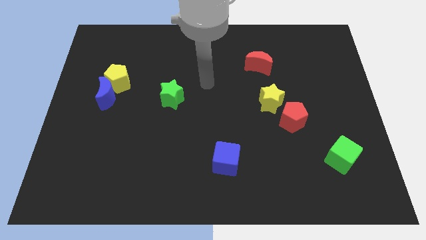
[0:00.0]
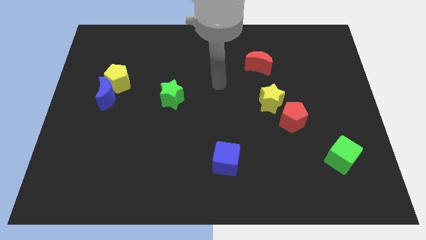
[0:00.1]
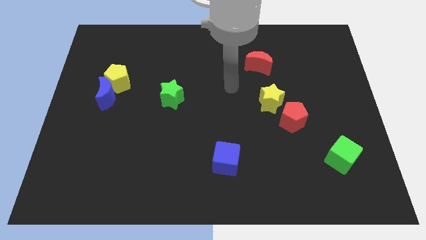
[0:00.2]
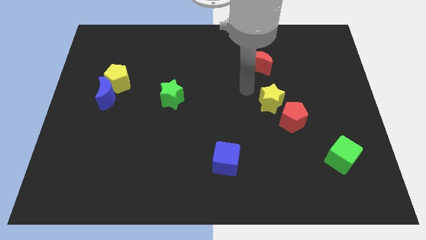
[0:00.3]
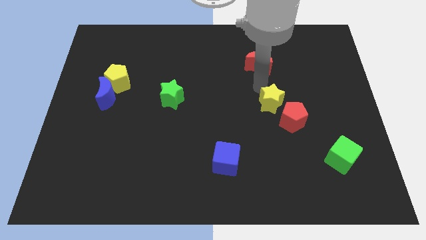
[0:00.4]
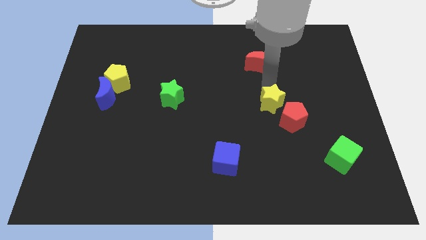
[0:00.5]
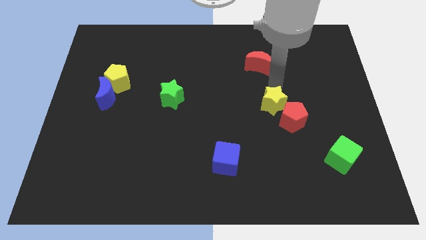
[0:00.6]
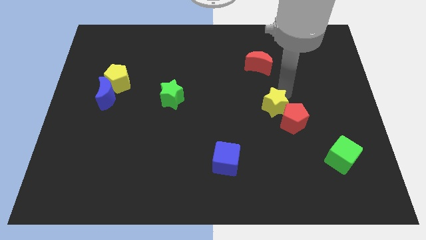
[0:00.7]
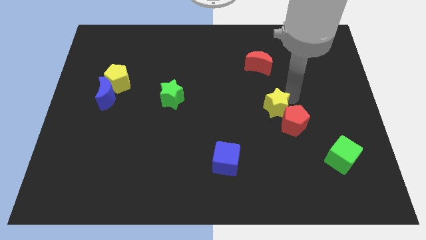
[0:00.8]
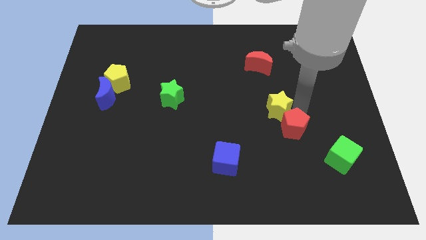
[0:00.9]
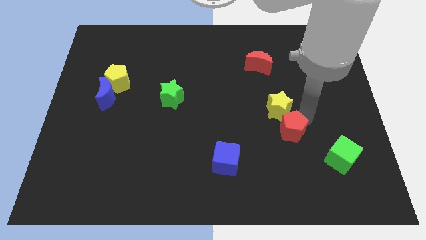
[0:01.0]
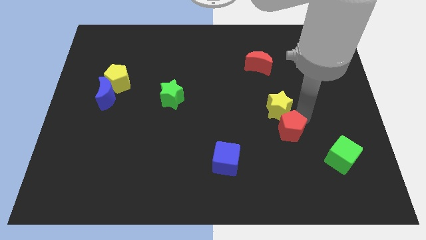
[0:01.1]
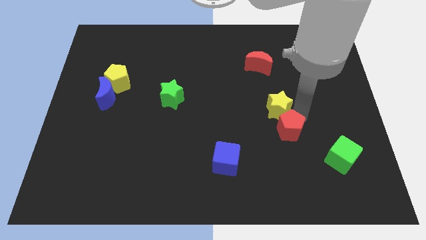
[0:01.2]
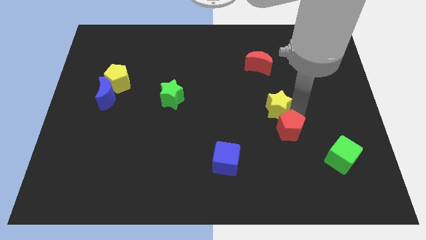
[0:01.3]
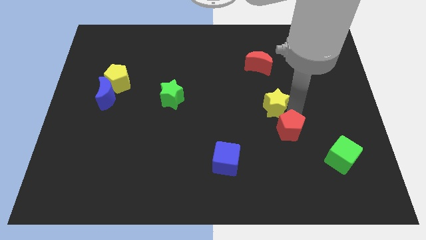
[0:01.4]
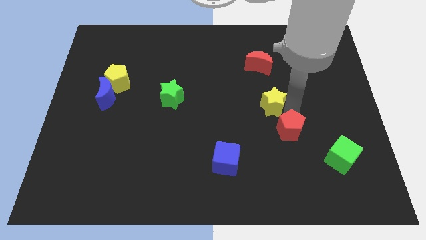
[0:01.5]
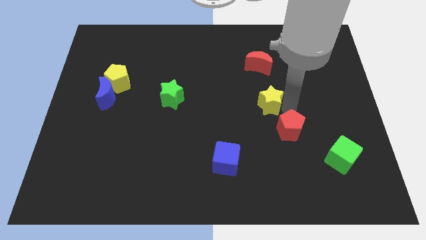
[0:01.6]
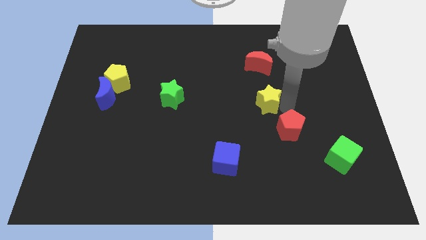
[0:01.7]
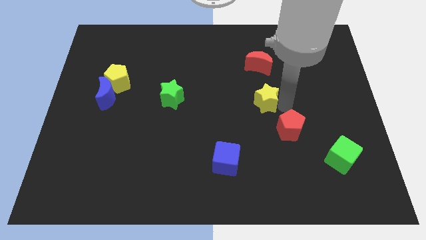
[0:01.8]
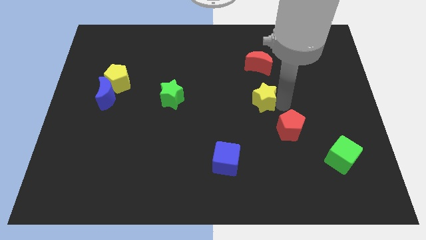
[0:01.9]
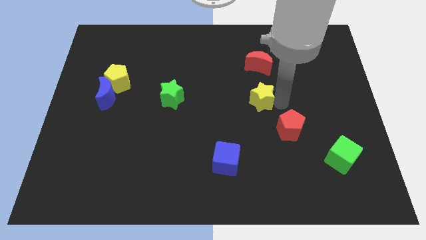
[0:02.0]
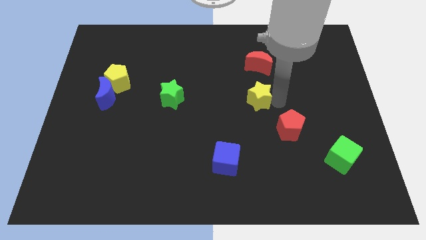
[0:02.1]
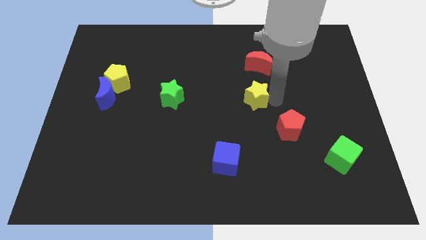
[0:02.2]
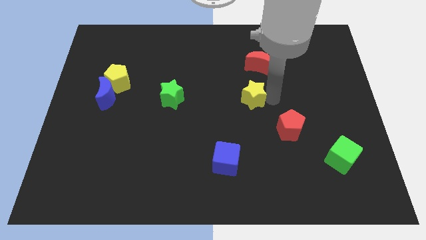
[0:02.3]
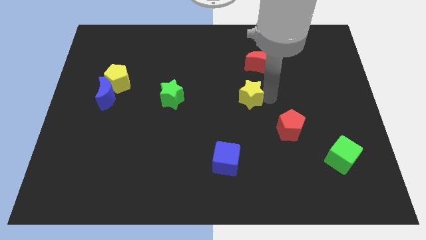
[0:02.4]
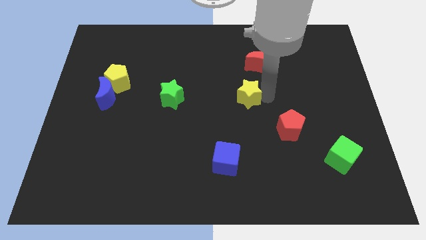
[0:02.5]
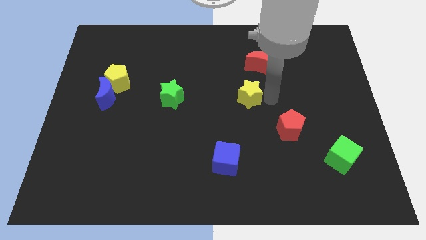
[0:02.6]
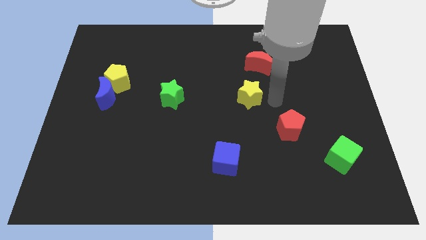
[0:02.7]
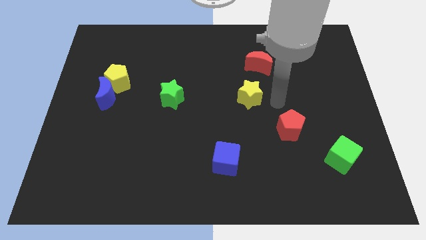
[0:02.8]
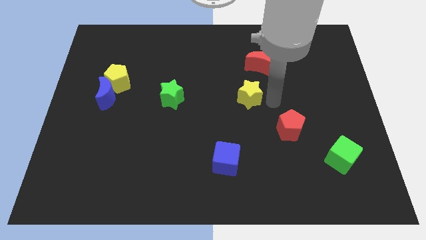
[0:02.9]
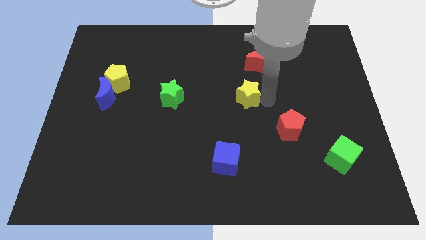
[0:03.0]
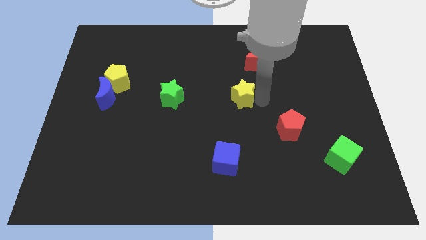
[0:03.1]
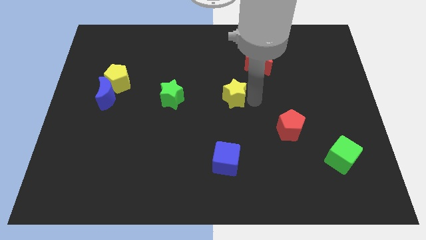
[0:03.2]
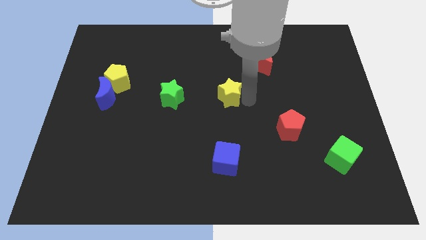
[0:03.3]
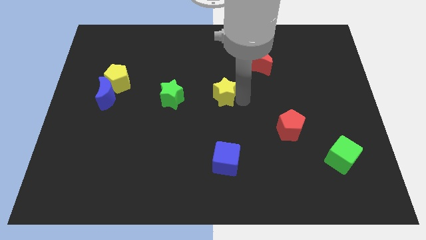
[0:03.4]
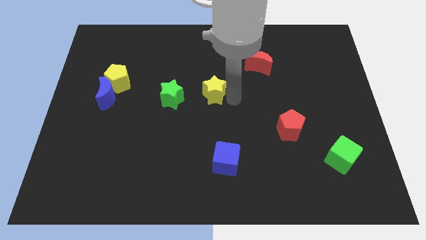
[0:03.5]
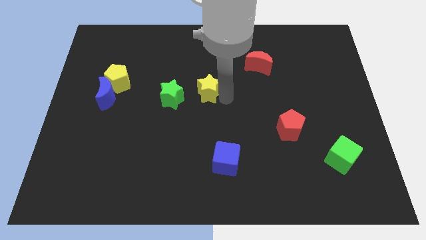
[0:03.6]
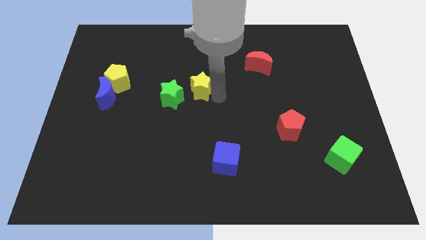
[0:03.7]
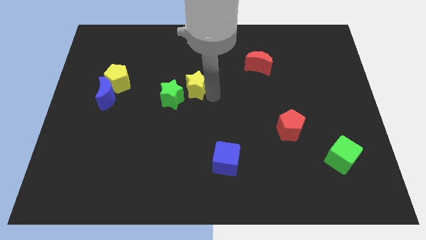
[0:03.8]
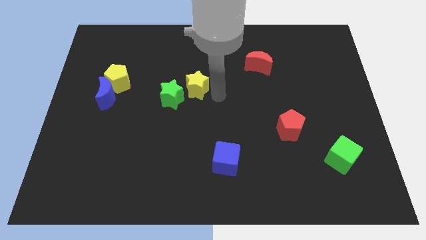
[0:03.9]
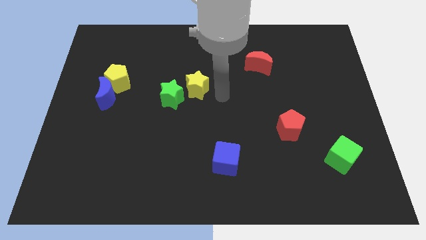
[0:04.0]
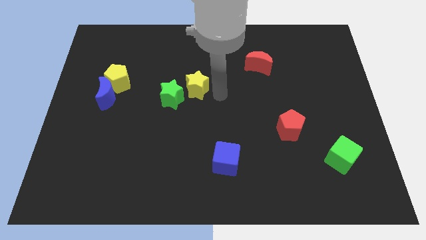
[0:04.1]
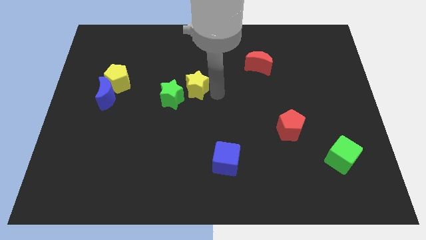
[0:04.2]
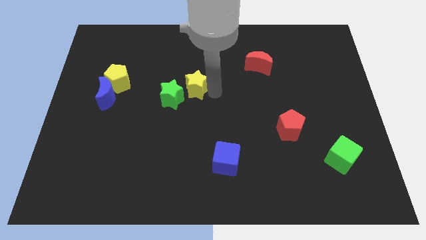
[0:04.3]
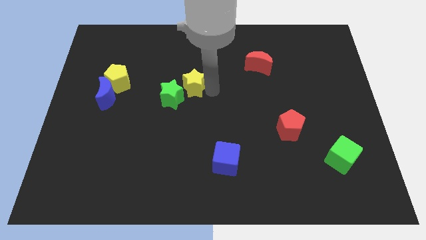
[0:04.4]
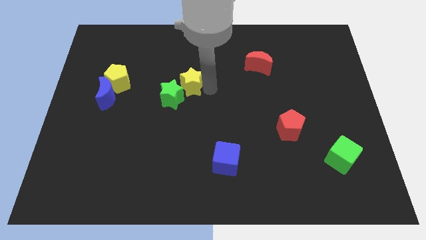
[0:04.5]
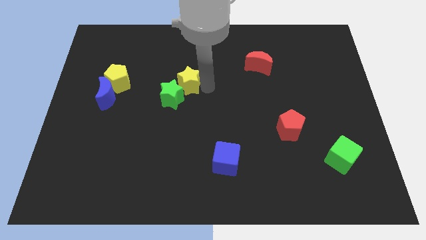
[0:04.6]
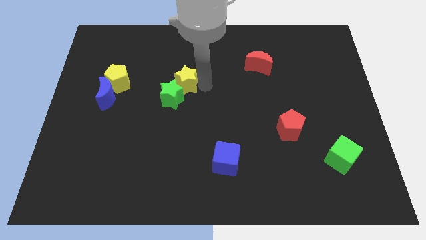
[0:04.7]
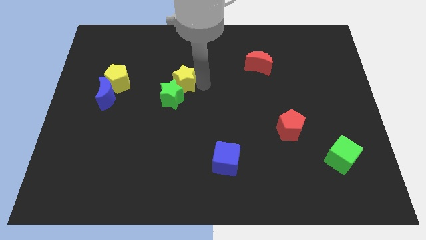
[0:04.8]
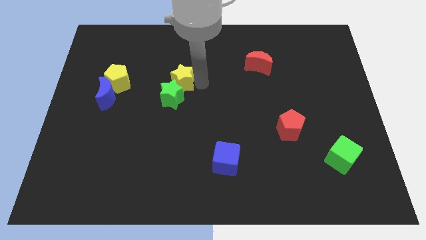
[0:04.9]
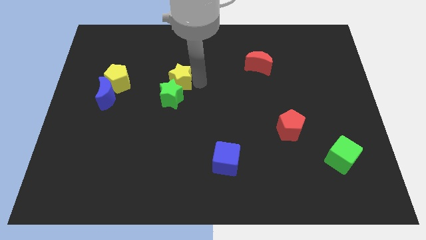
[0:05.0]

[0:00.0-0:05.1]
slide the yellow star to the top left of the green star

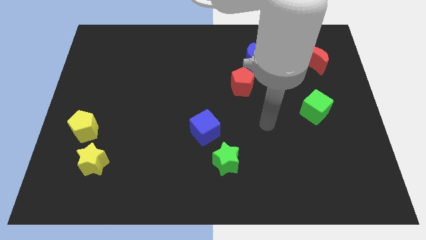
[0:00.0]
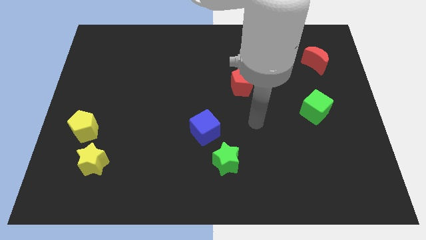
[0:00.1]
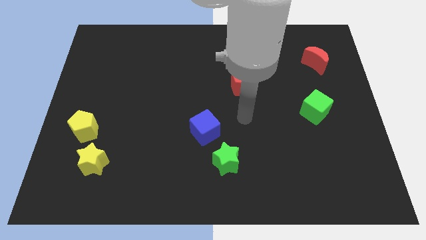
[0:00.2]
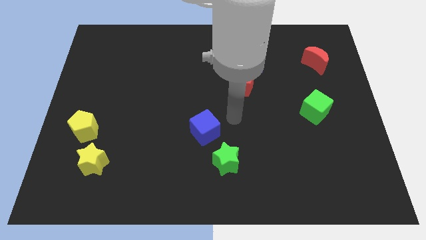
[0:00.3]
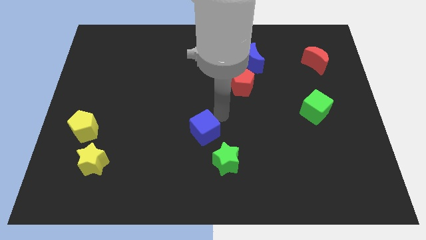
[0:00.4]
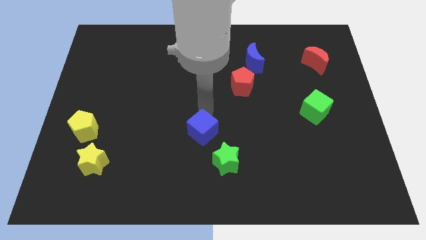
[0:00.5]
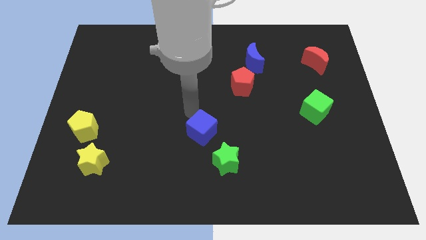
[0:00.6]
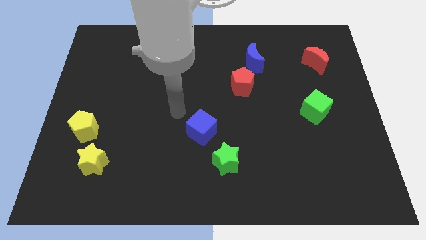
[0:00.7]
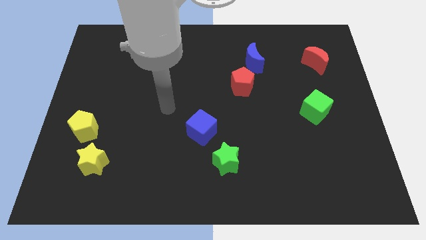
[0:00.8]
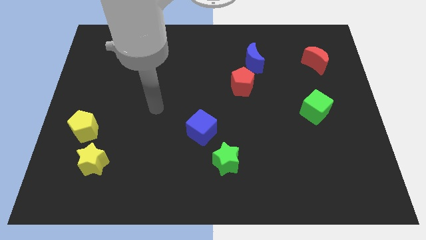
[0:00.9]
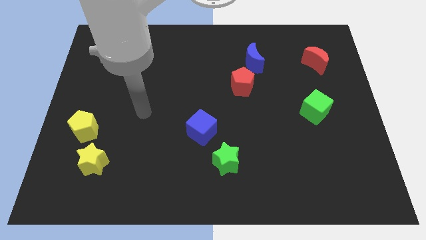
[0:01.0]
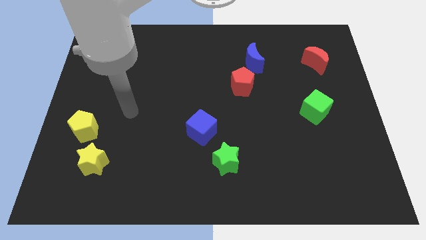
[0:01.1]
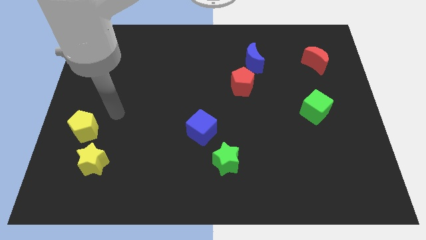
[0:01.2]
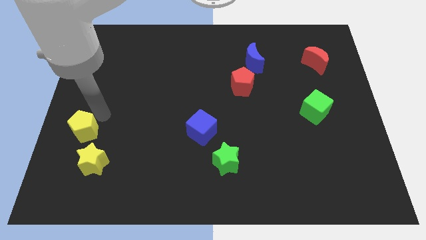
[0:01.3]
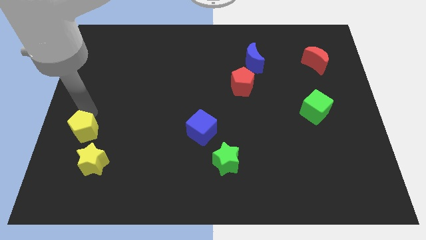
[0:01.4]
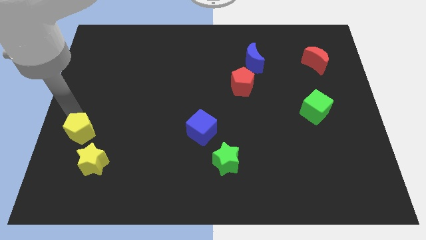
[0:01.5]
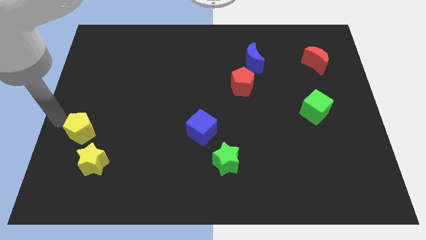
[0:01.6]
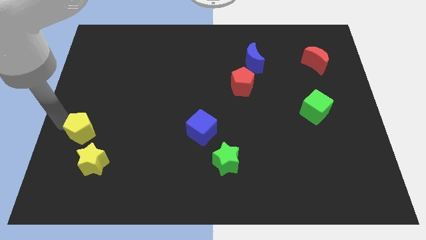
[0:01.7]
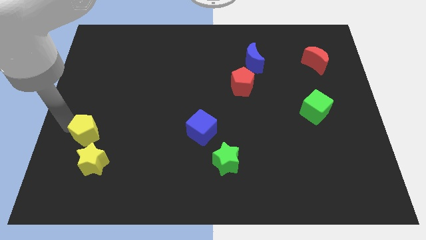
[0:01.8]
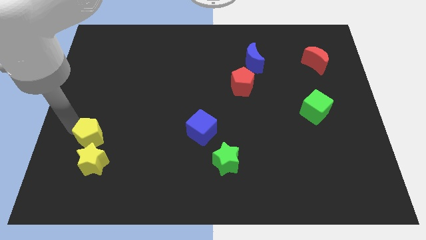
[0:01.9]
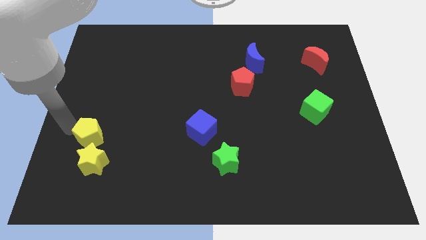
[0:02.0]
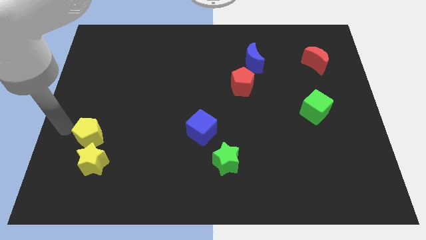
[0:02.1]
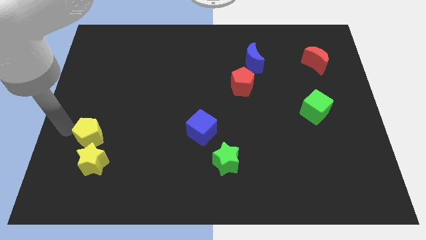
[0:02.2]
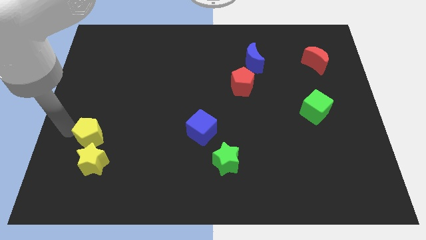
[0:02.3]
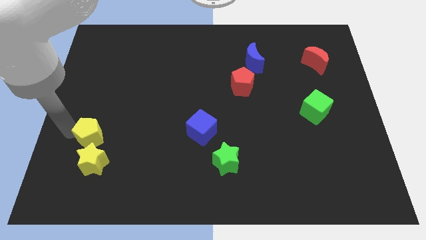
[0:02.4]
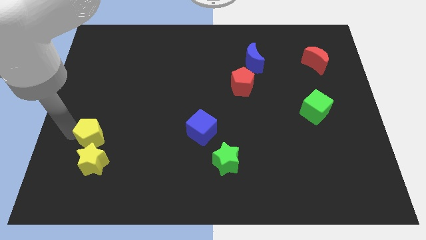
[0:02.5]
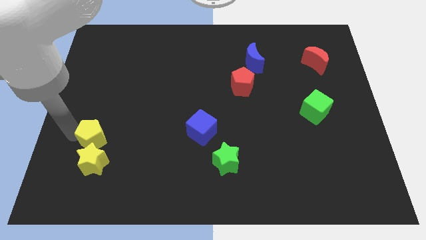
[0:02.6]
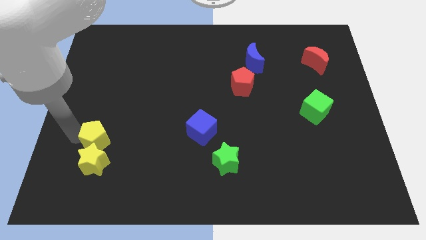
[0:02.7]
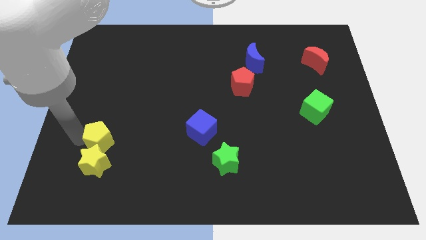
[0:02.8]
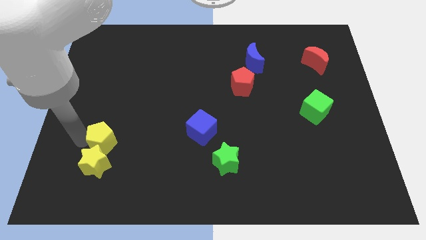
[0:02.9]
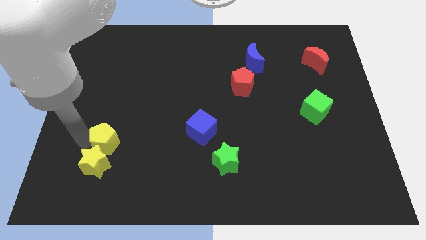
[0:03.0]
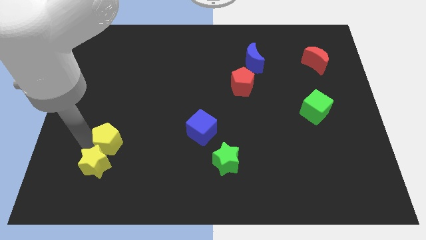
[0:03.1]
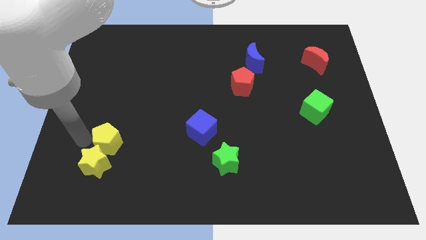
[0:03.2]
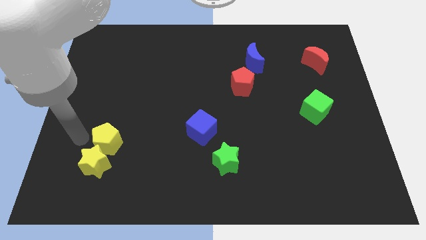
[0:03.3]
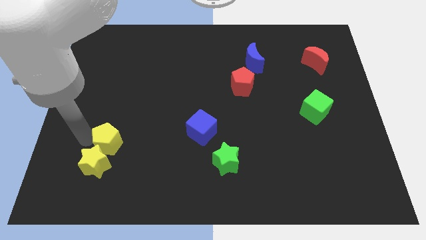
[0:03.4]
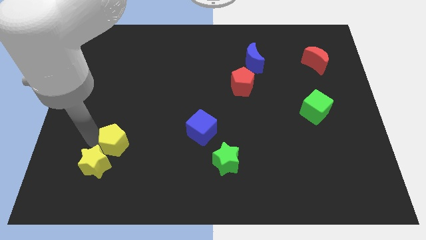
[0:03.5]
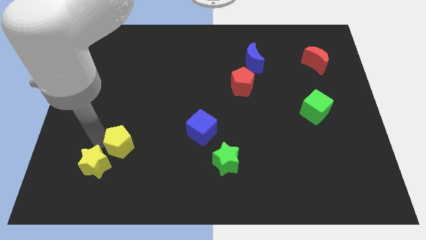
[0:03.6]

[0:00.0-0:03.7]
slide the yellow pentagon to the right side of the yellow star
